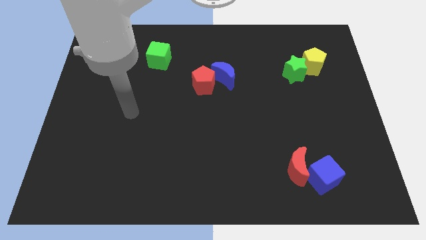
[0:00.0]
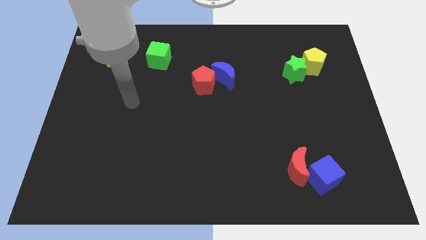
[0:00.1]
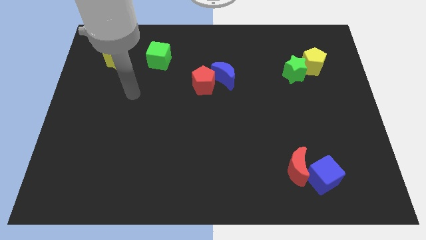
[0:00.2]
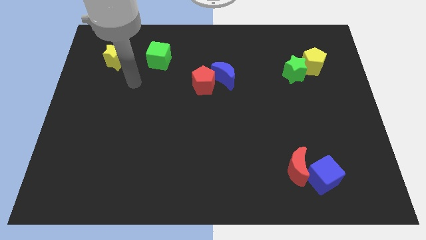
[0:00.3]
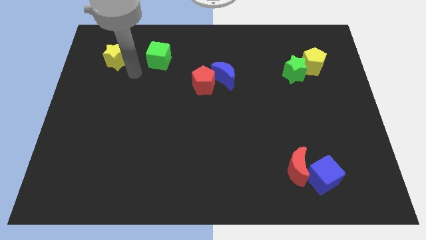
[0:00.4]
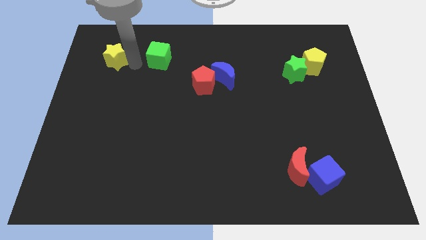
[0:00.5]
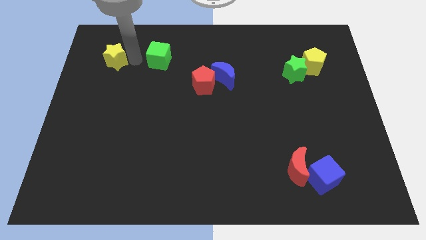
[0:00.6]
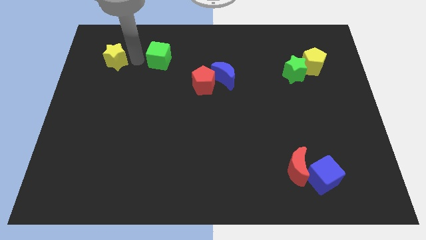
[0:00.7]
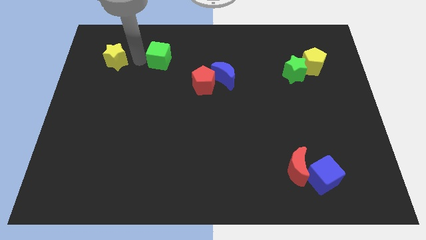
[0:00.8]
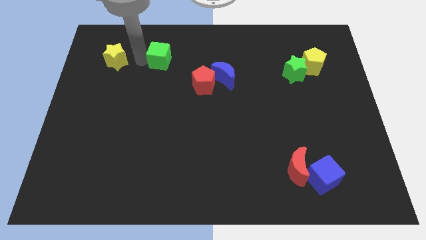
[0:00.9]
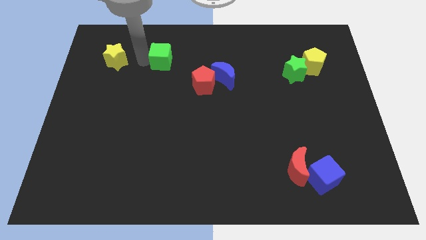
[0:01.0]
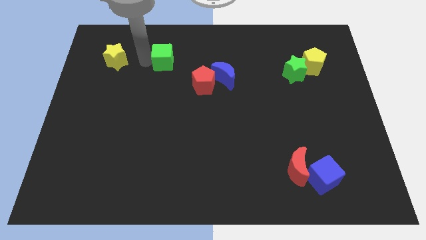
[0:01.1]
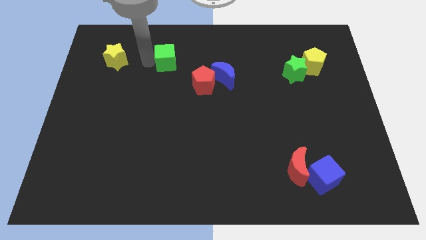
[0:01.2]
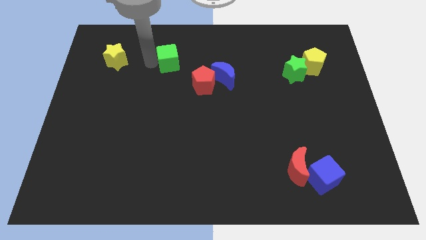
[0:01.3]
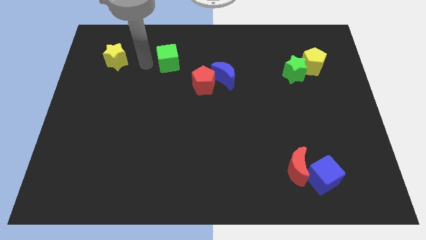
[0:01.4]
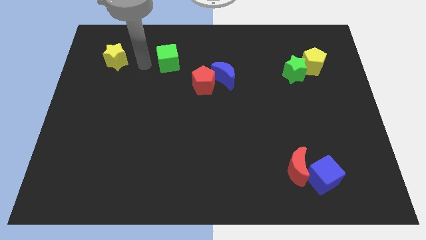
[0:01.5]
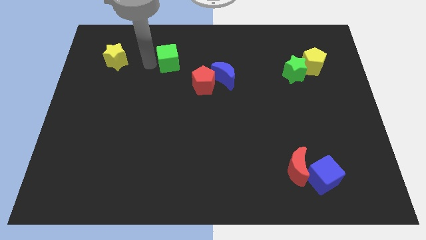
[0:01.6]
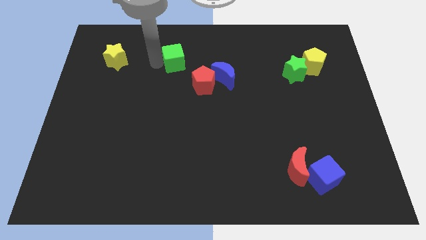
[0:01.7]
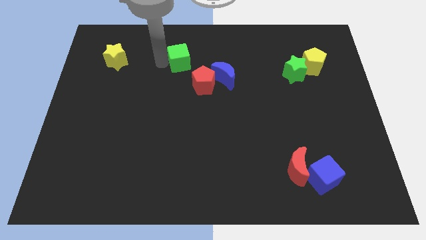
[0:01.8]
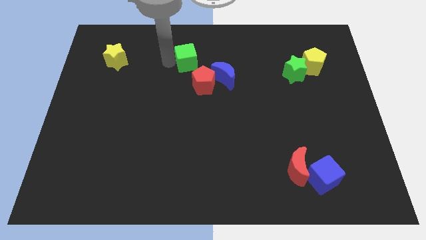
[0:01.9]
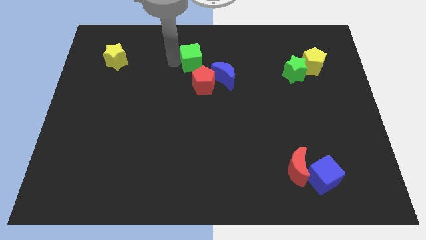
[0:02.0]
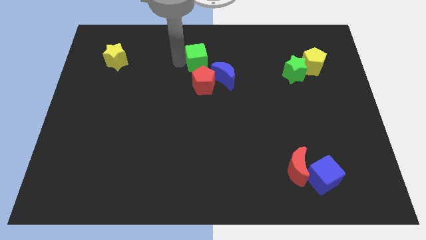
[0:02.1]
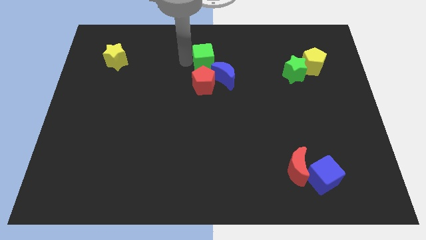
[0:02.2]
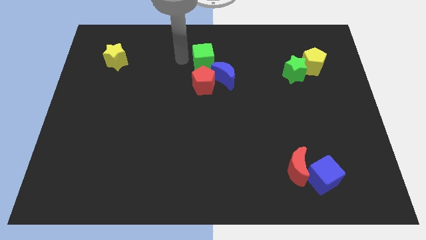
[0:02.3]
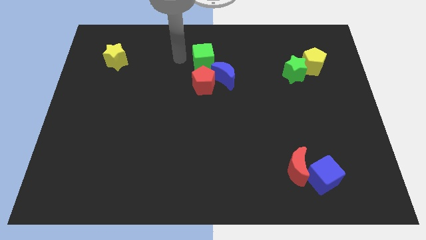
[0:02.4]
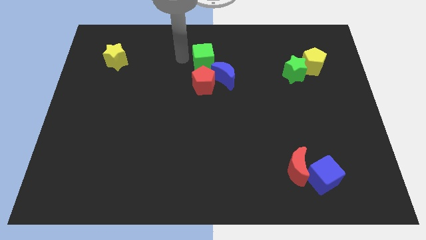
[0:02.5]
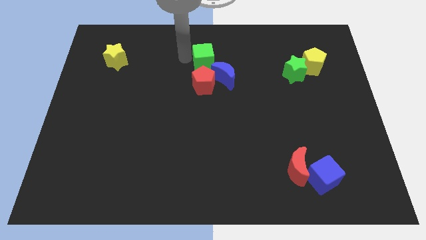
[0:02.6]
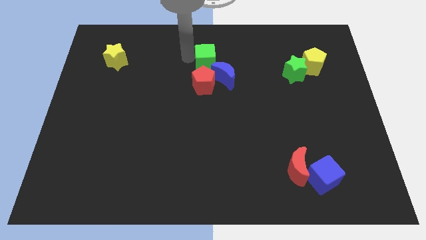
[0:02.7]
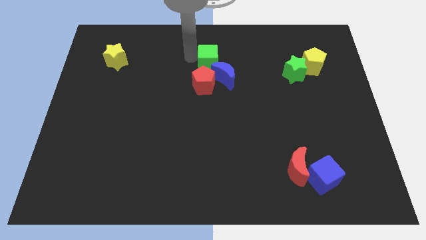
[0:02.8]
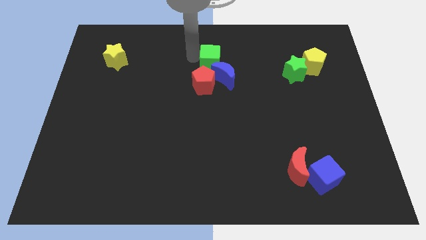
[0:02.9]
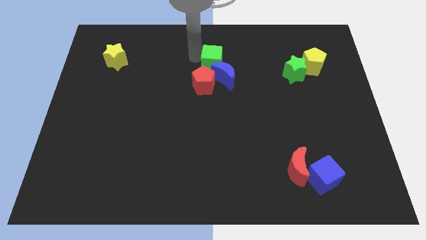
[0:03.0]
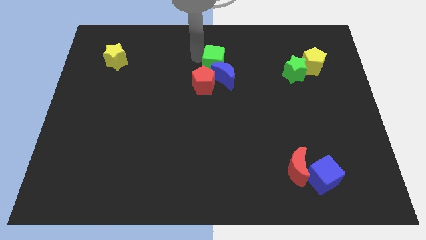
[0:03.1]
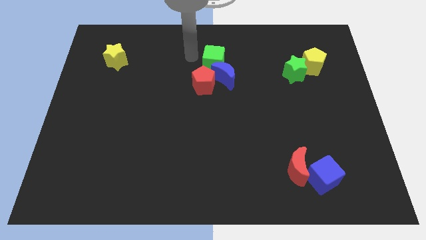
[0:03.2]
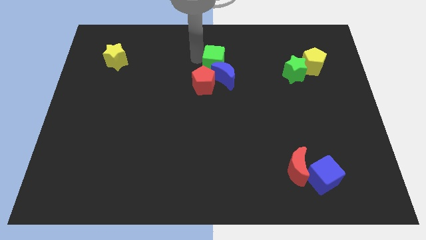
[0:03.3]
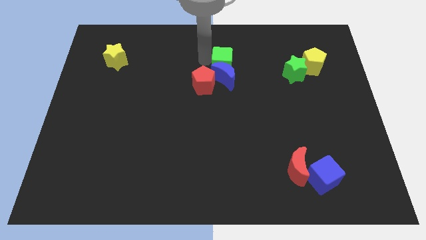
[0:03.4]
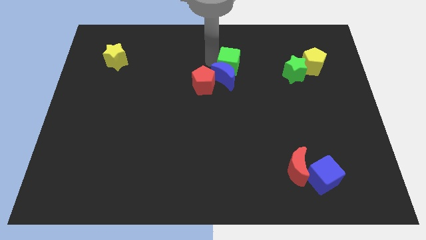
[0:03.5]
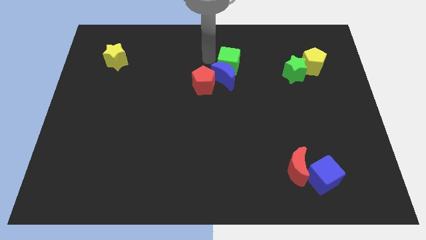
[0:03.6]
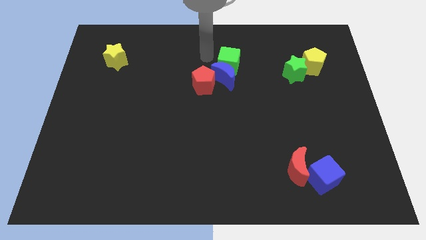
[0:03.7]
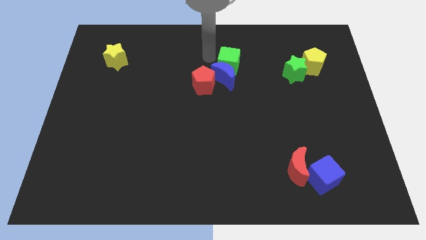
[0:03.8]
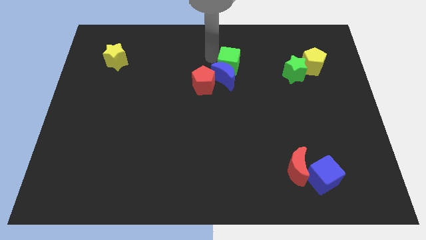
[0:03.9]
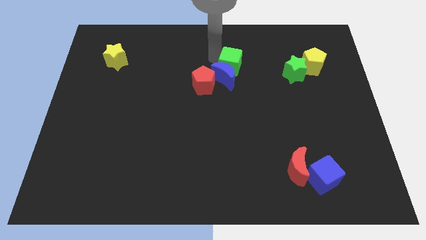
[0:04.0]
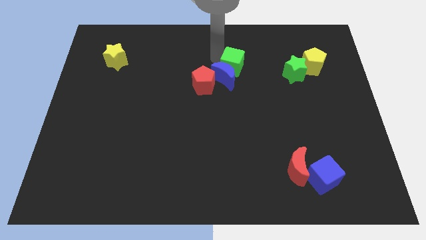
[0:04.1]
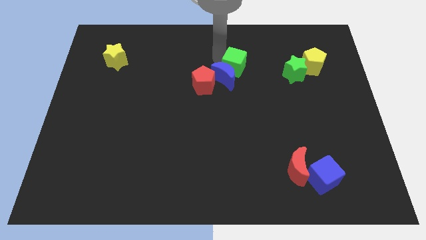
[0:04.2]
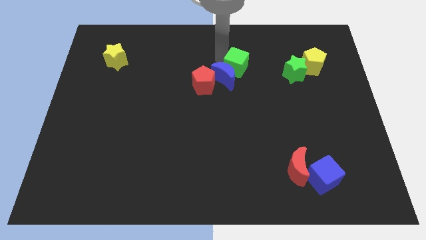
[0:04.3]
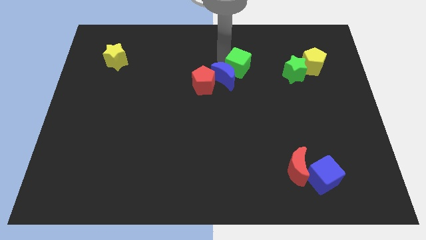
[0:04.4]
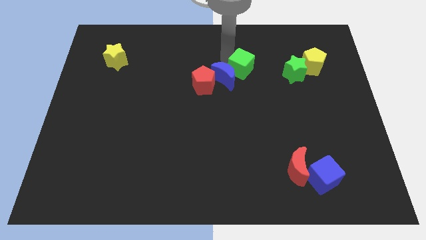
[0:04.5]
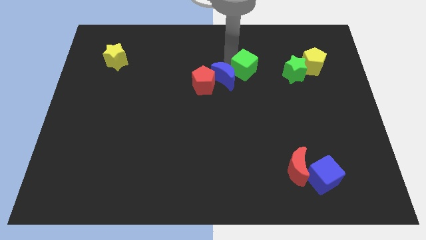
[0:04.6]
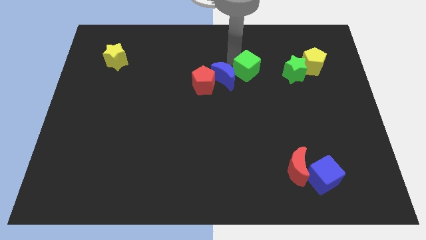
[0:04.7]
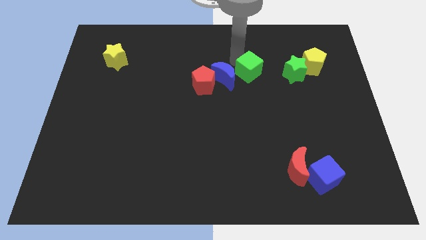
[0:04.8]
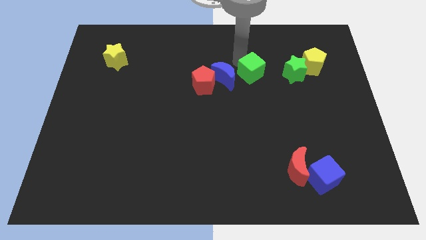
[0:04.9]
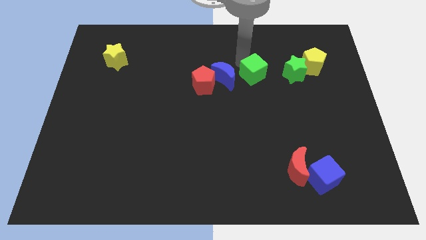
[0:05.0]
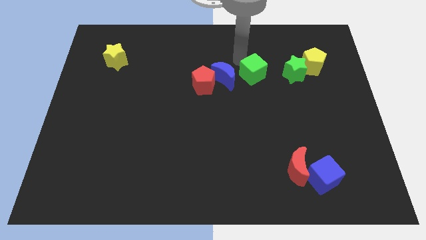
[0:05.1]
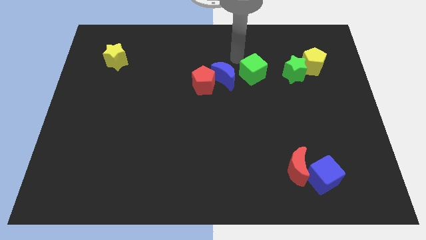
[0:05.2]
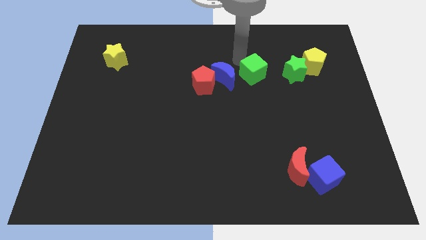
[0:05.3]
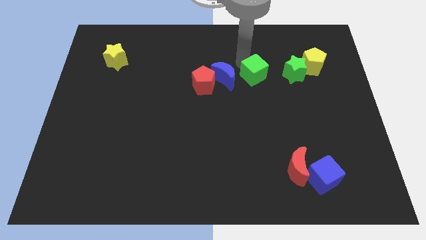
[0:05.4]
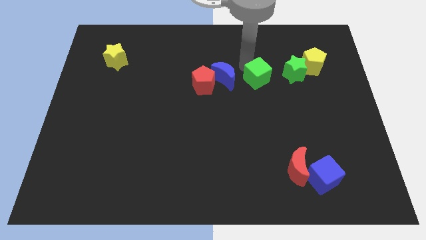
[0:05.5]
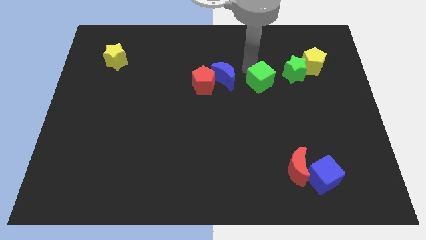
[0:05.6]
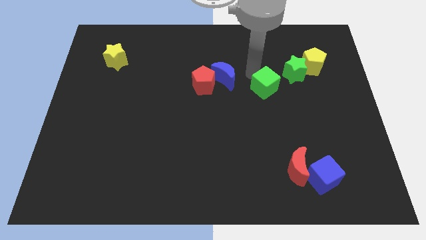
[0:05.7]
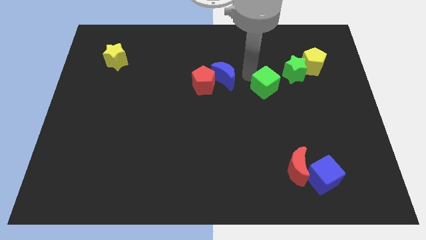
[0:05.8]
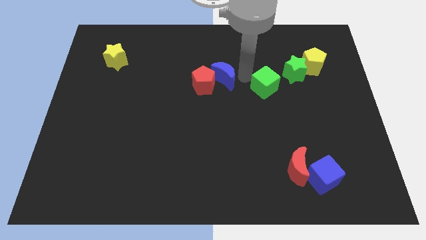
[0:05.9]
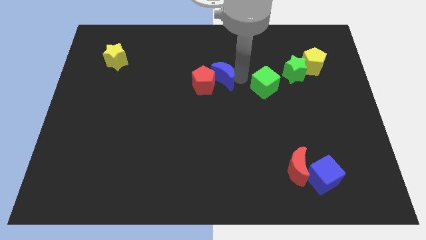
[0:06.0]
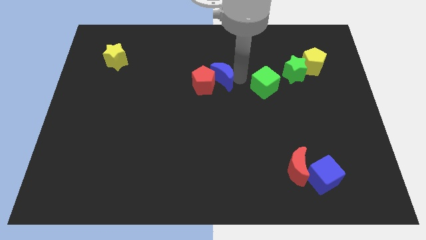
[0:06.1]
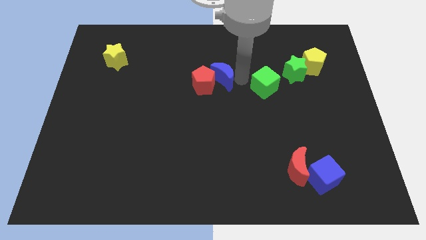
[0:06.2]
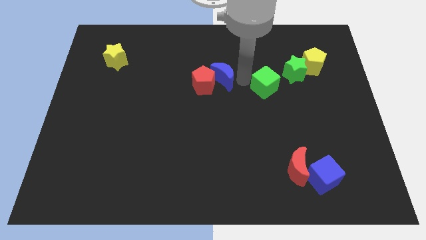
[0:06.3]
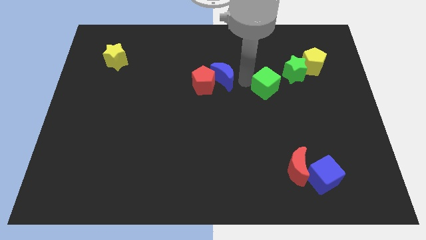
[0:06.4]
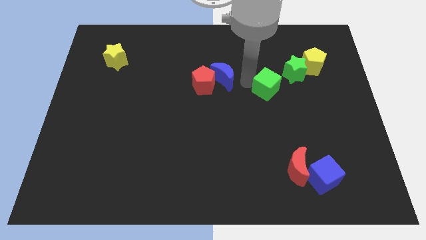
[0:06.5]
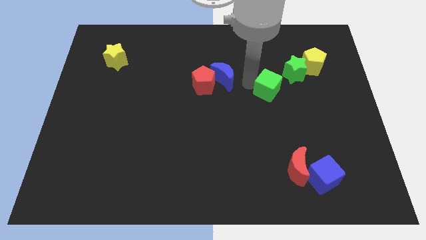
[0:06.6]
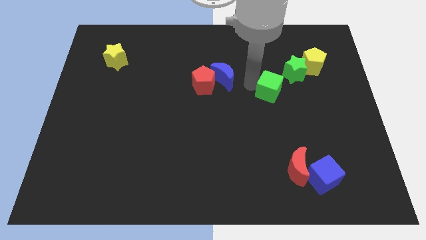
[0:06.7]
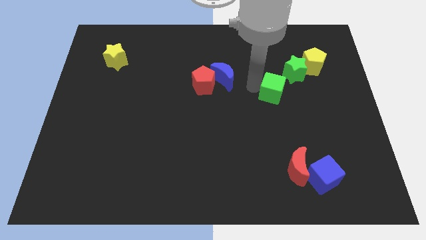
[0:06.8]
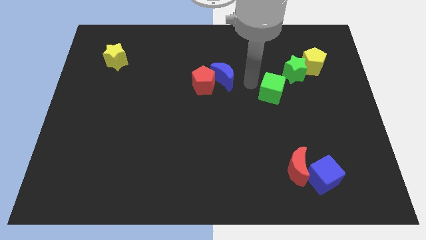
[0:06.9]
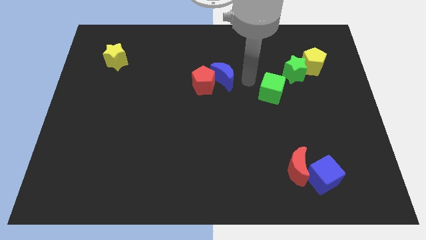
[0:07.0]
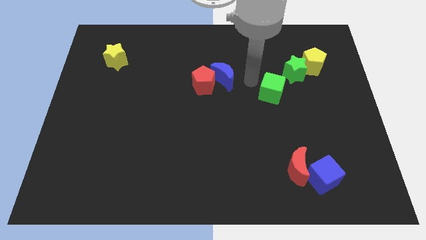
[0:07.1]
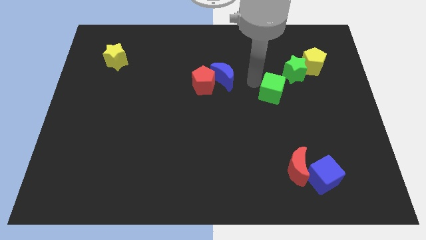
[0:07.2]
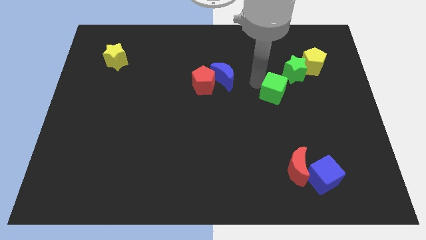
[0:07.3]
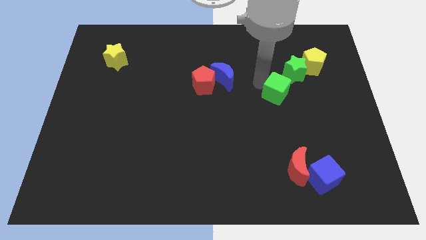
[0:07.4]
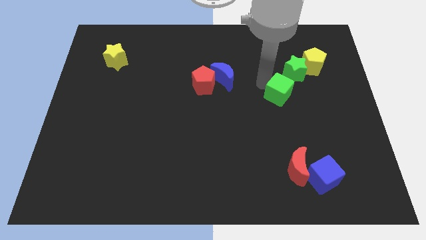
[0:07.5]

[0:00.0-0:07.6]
push the green cube below the green star
